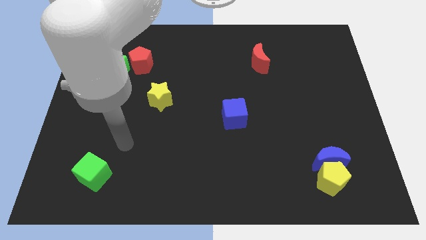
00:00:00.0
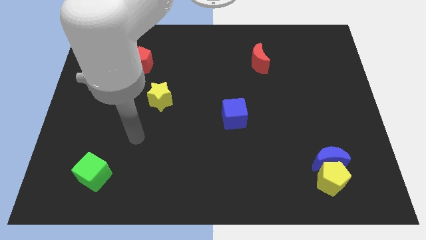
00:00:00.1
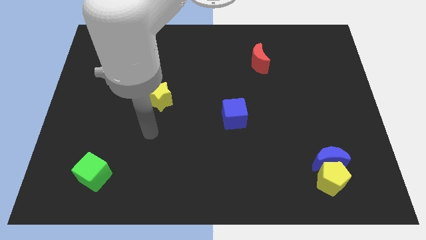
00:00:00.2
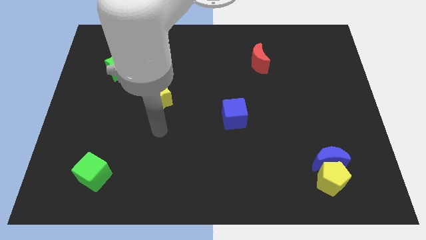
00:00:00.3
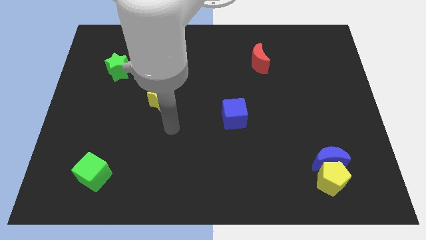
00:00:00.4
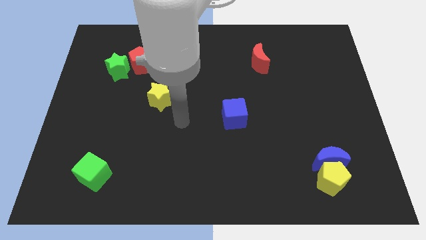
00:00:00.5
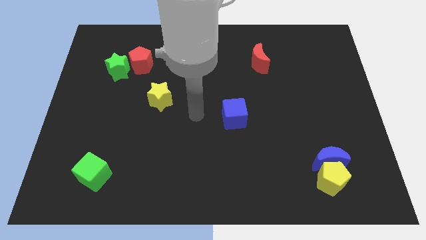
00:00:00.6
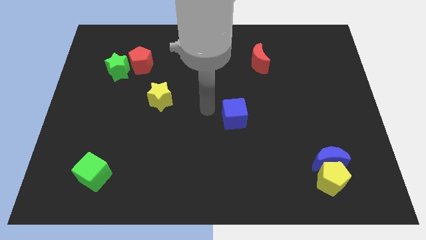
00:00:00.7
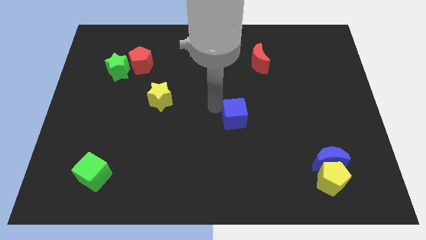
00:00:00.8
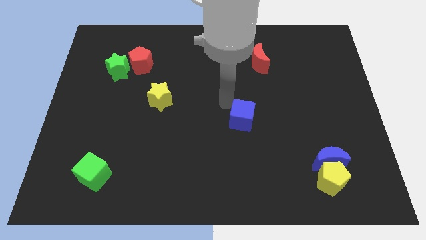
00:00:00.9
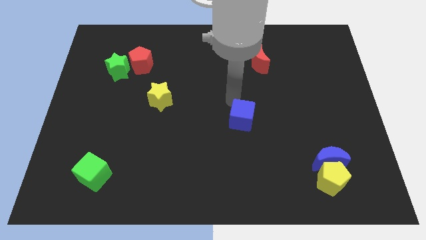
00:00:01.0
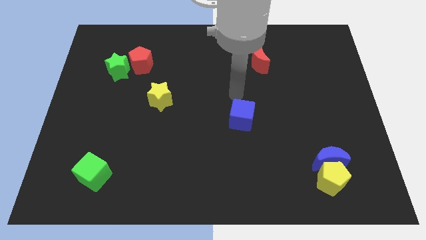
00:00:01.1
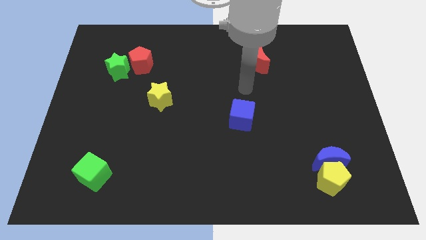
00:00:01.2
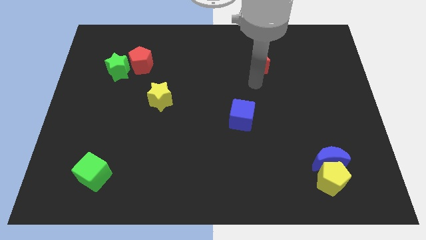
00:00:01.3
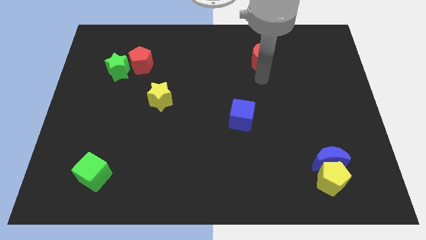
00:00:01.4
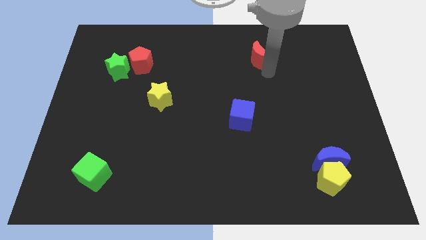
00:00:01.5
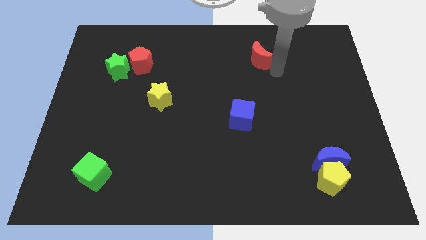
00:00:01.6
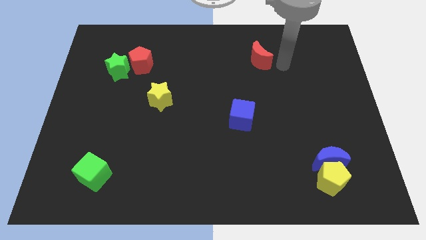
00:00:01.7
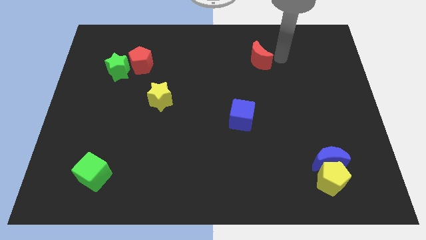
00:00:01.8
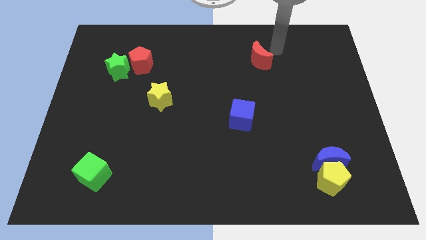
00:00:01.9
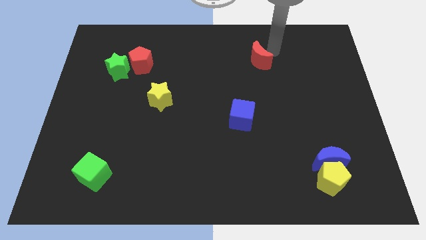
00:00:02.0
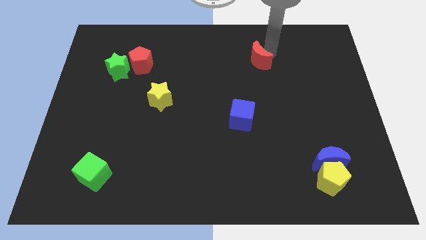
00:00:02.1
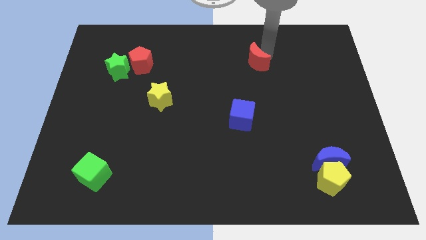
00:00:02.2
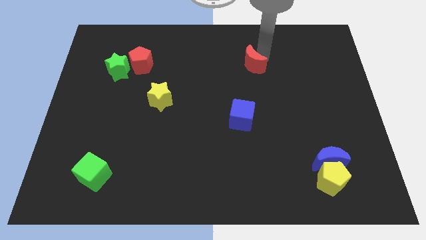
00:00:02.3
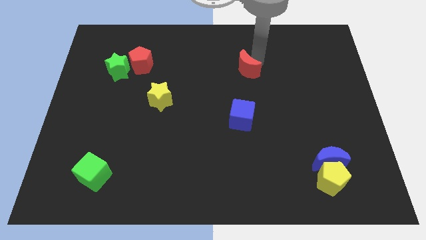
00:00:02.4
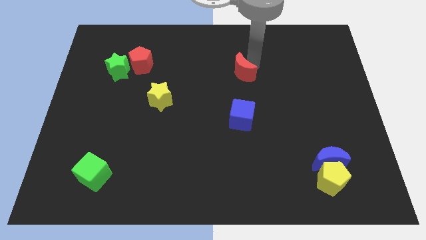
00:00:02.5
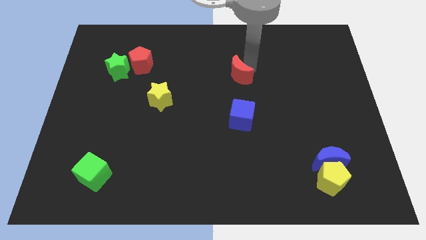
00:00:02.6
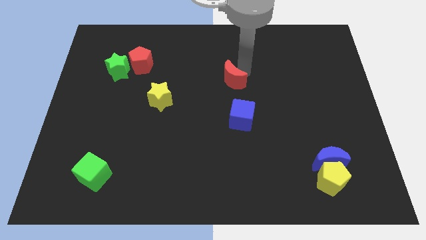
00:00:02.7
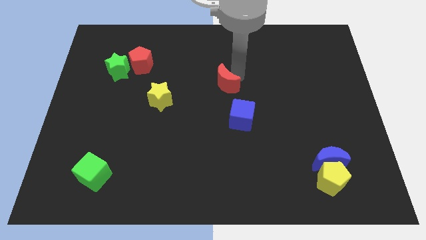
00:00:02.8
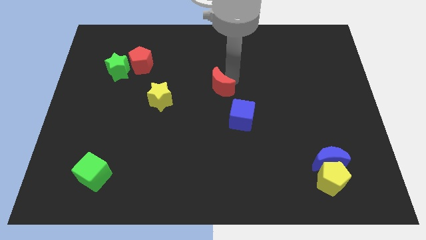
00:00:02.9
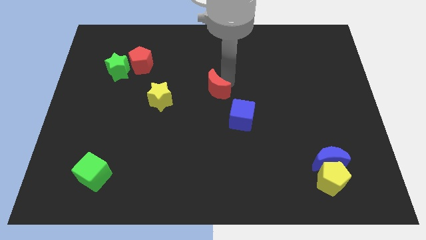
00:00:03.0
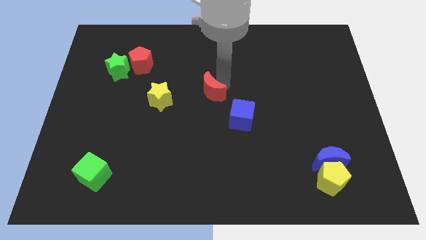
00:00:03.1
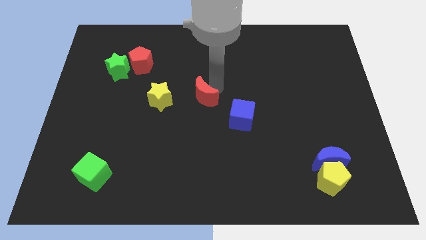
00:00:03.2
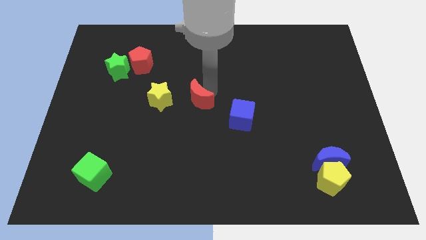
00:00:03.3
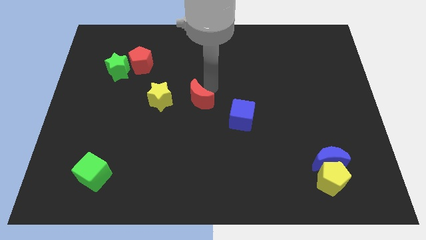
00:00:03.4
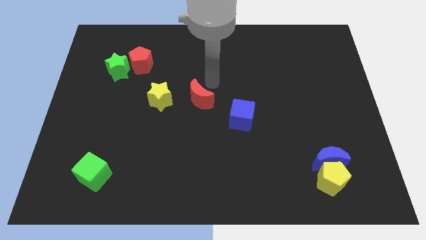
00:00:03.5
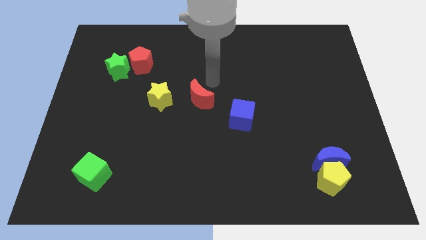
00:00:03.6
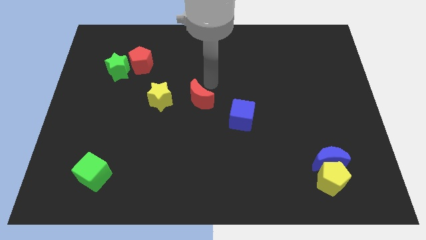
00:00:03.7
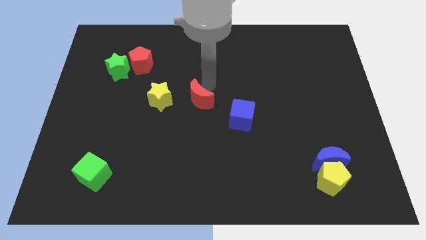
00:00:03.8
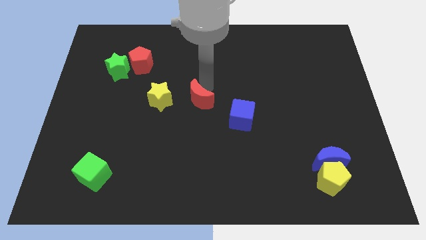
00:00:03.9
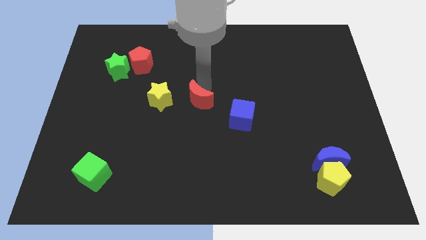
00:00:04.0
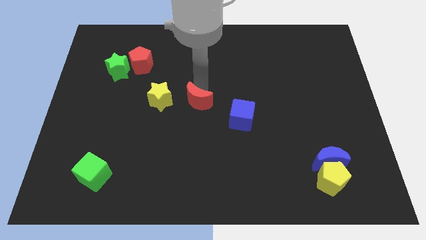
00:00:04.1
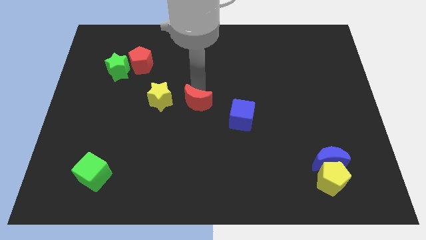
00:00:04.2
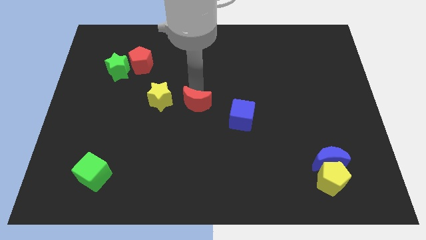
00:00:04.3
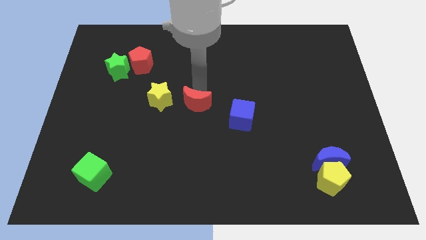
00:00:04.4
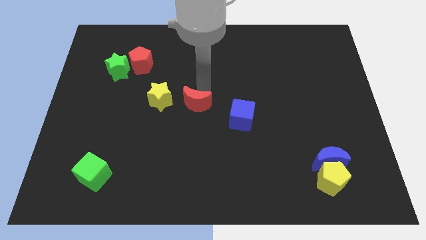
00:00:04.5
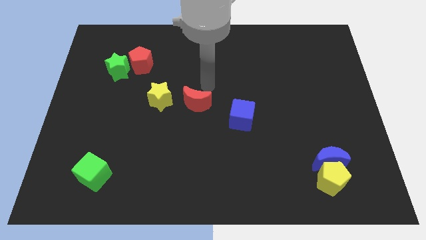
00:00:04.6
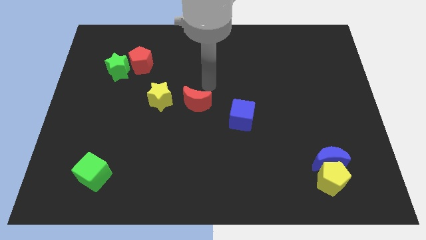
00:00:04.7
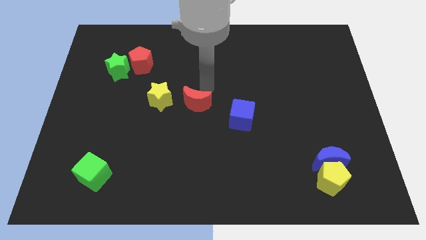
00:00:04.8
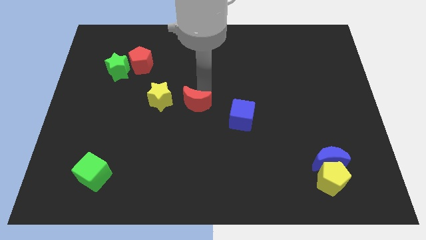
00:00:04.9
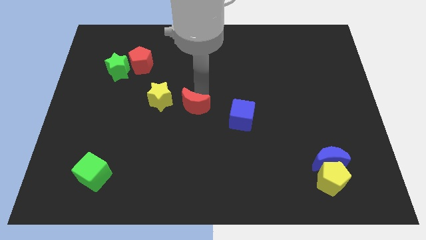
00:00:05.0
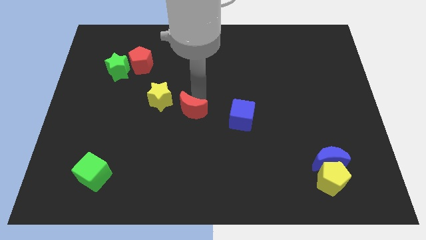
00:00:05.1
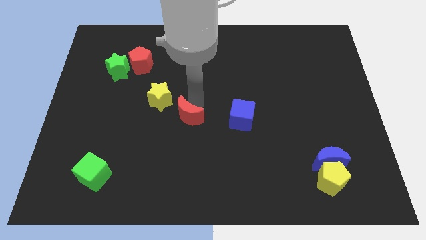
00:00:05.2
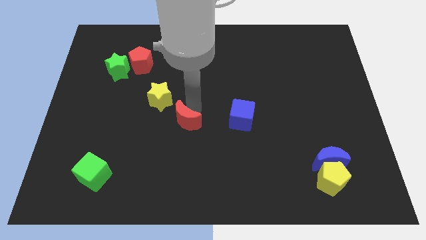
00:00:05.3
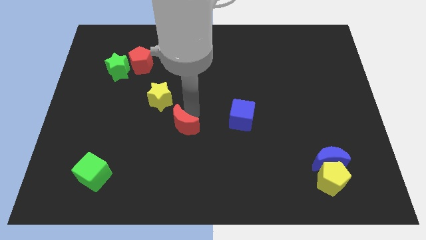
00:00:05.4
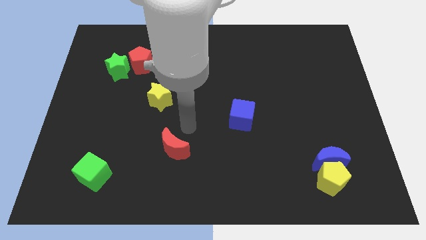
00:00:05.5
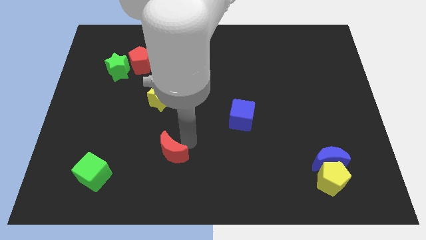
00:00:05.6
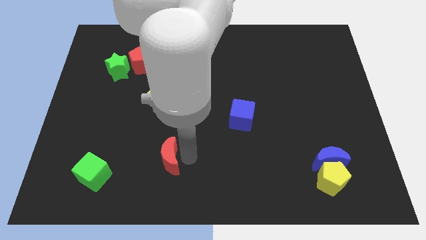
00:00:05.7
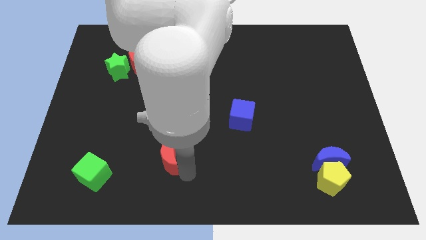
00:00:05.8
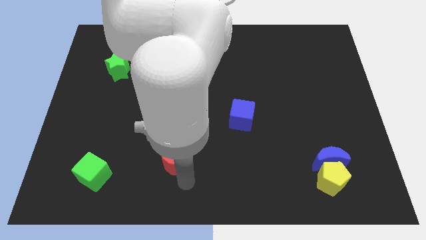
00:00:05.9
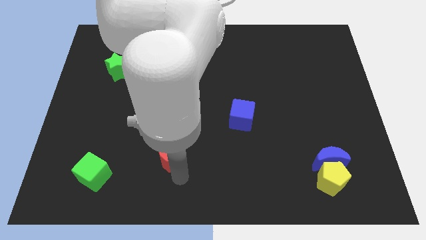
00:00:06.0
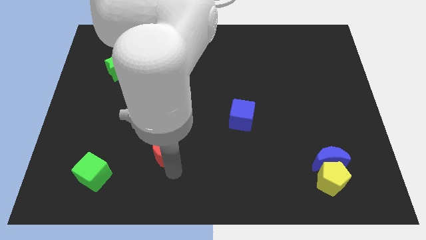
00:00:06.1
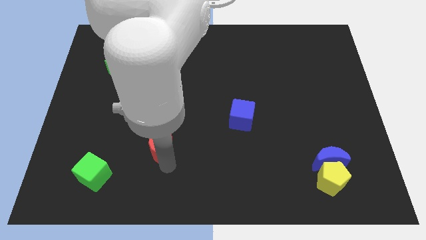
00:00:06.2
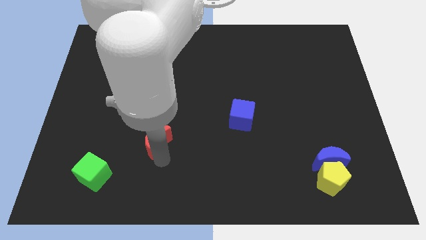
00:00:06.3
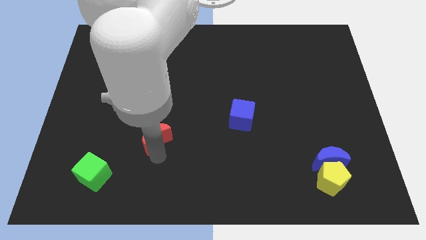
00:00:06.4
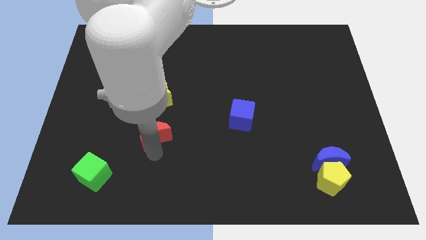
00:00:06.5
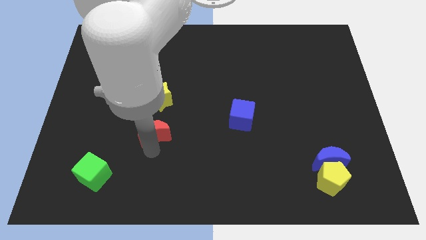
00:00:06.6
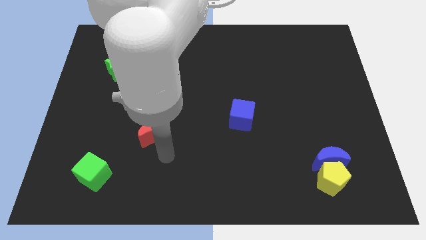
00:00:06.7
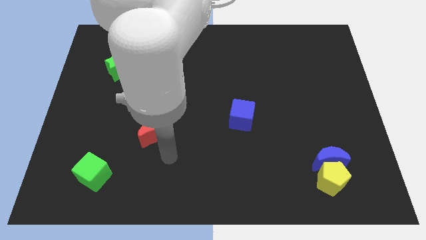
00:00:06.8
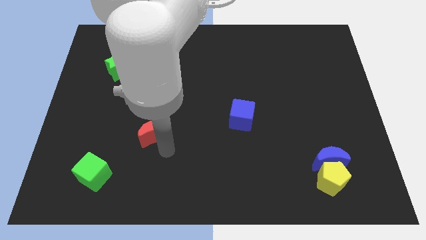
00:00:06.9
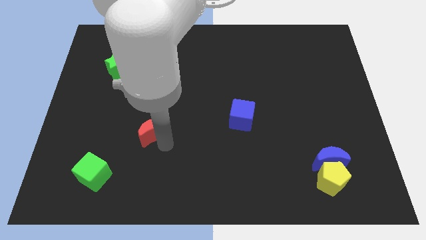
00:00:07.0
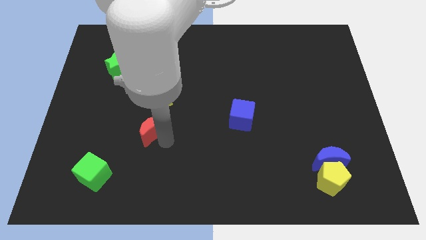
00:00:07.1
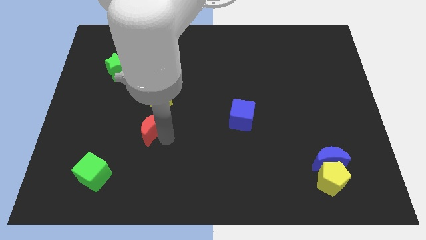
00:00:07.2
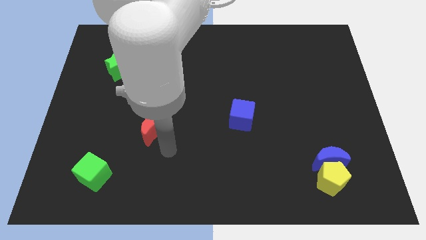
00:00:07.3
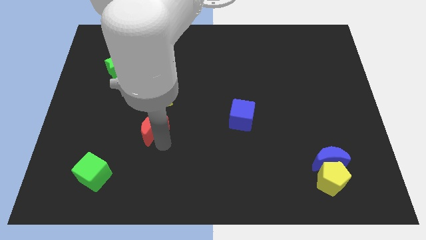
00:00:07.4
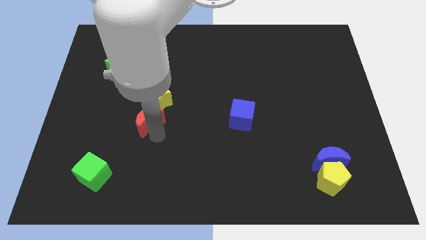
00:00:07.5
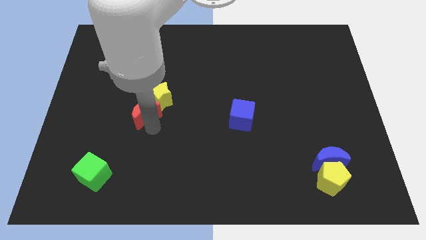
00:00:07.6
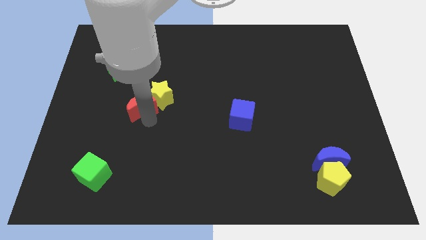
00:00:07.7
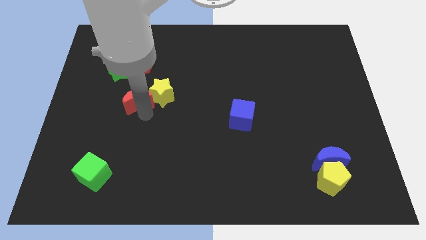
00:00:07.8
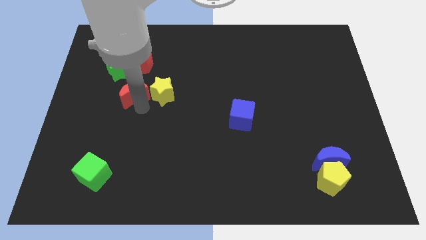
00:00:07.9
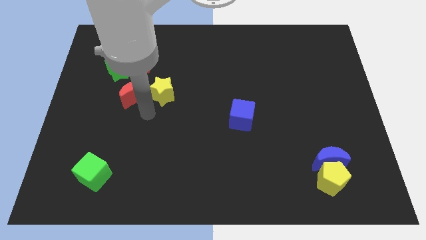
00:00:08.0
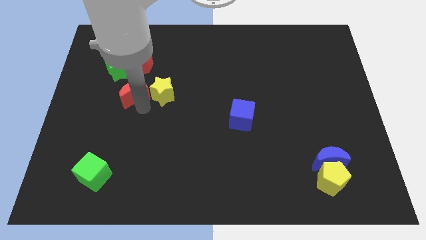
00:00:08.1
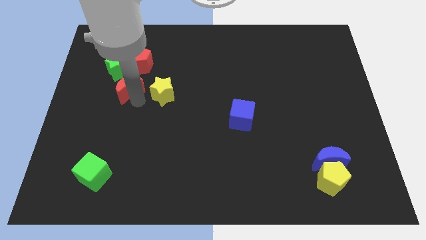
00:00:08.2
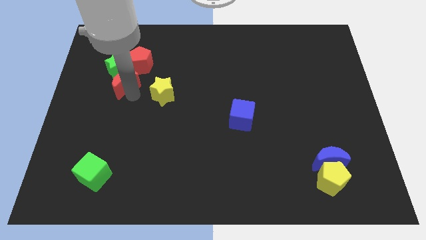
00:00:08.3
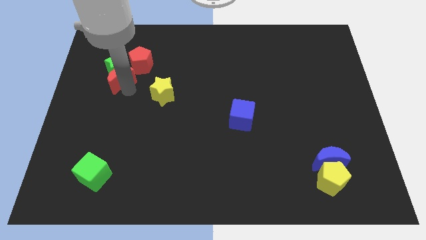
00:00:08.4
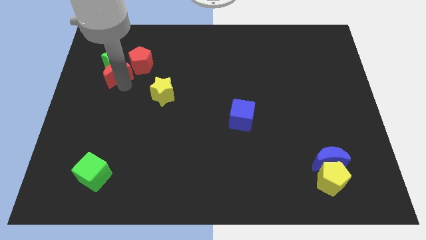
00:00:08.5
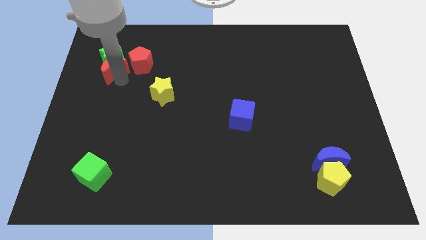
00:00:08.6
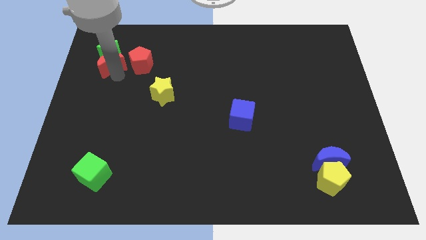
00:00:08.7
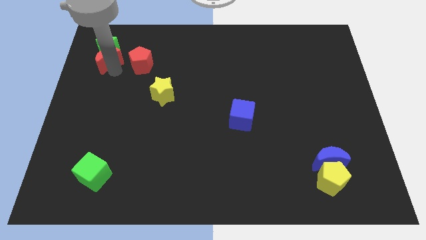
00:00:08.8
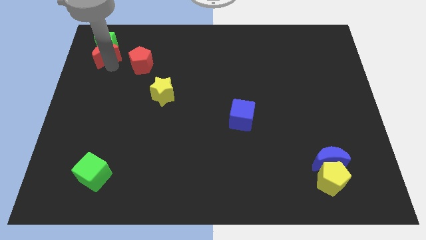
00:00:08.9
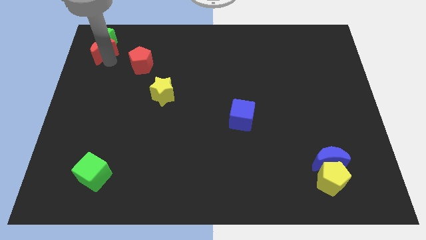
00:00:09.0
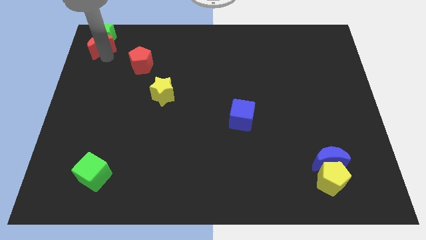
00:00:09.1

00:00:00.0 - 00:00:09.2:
push the red moon to the top left
